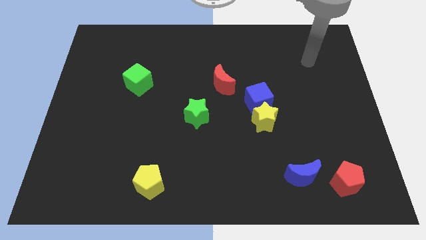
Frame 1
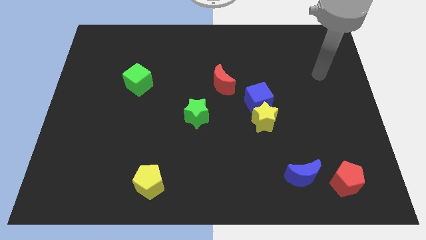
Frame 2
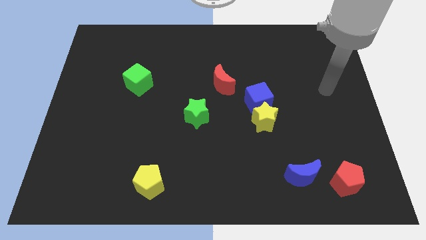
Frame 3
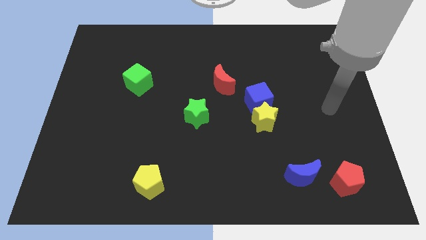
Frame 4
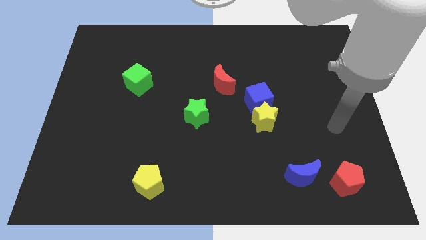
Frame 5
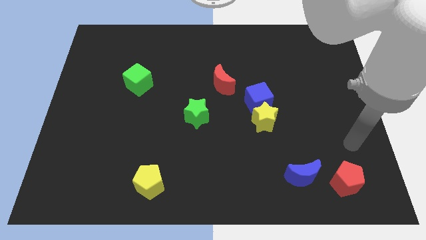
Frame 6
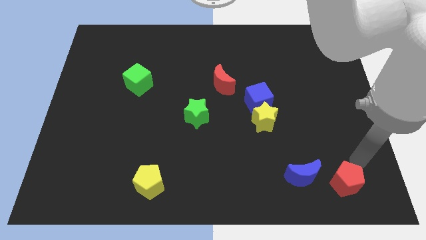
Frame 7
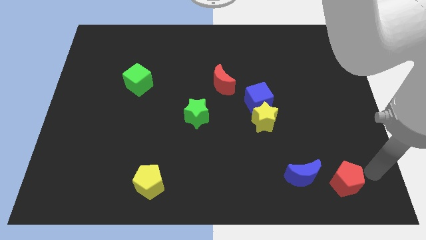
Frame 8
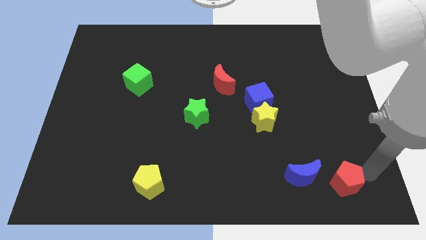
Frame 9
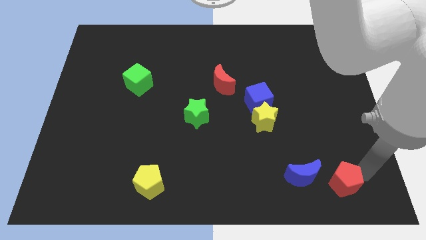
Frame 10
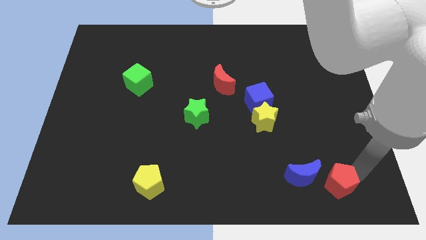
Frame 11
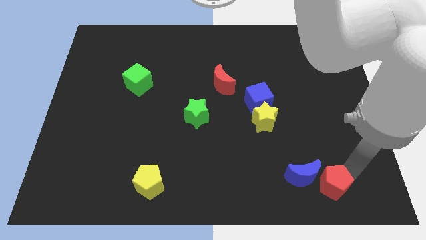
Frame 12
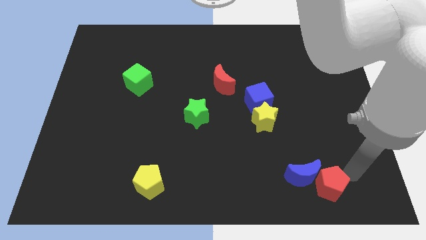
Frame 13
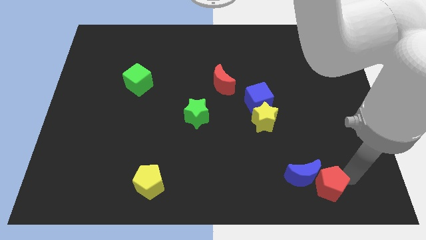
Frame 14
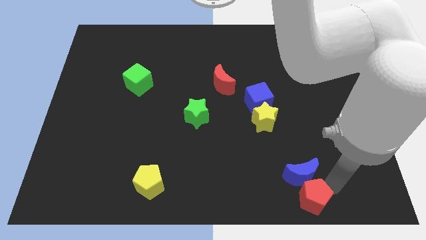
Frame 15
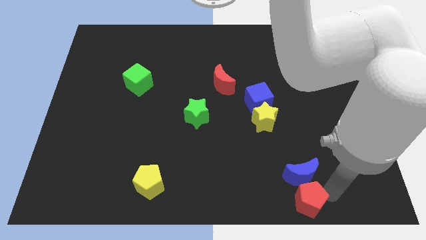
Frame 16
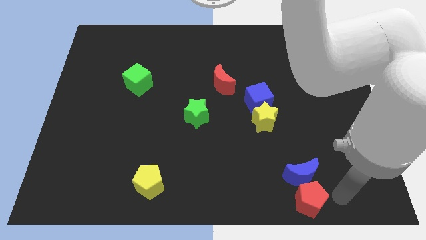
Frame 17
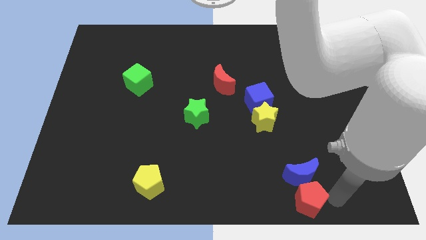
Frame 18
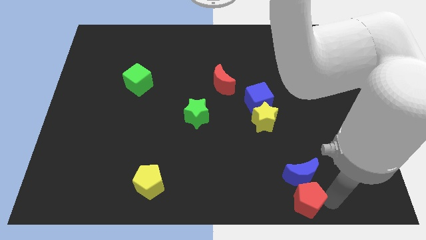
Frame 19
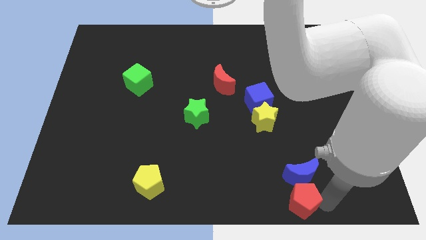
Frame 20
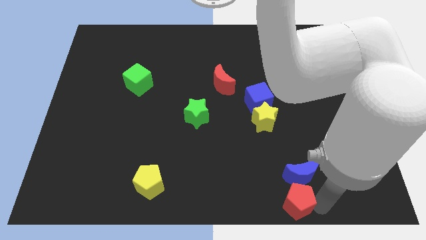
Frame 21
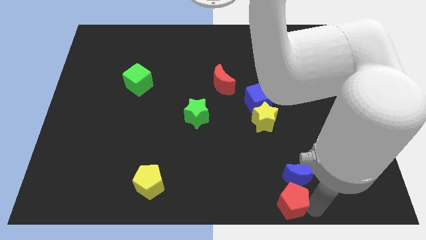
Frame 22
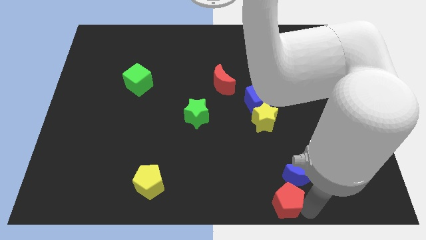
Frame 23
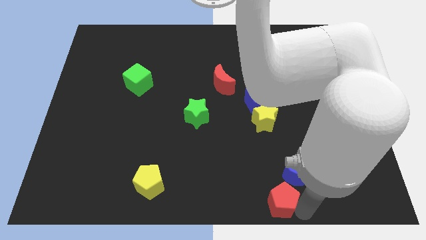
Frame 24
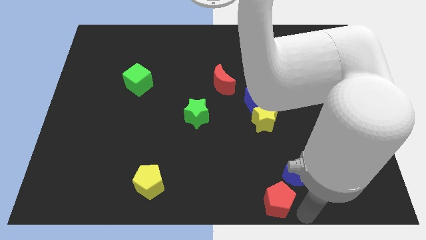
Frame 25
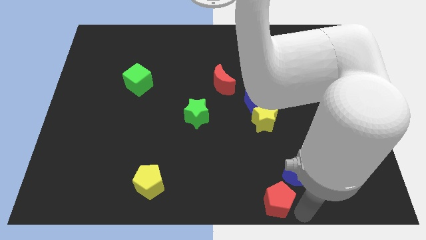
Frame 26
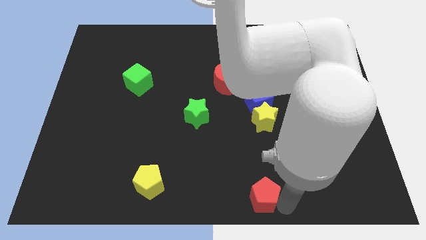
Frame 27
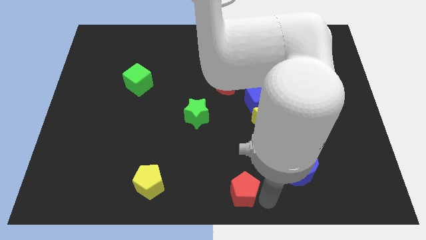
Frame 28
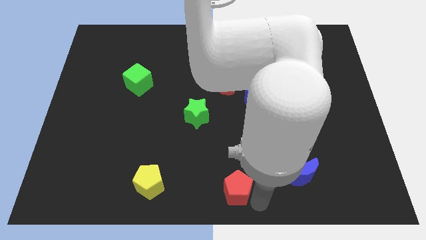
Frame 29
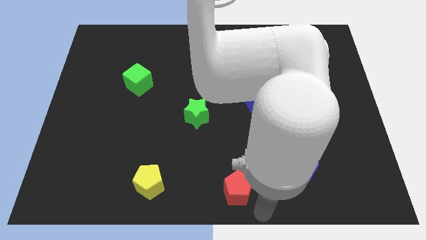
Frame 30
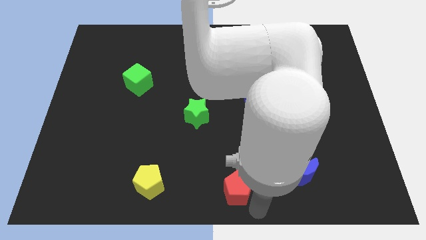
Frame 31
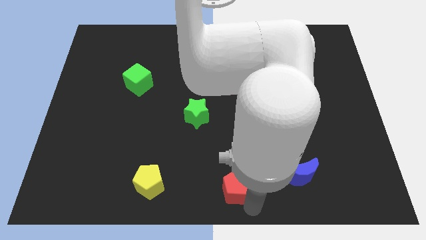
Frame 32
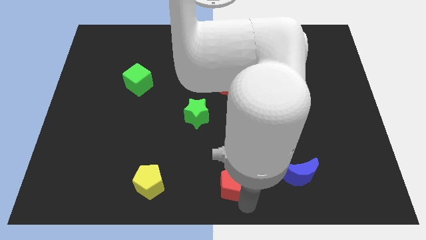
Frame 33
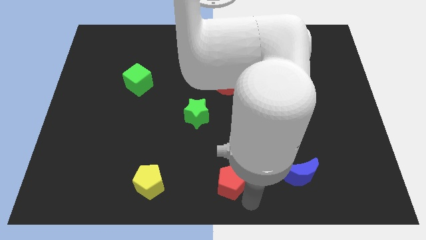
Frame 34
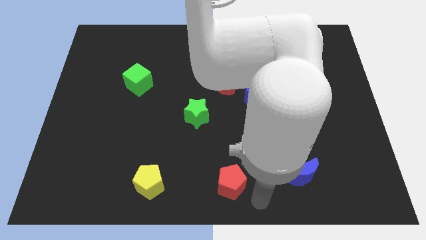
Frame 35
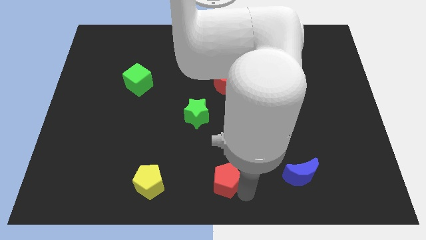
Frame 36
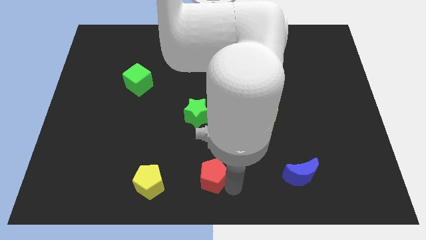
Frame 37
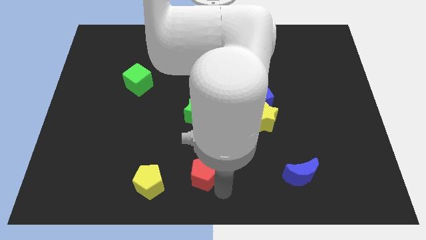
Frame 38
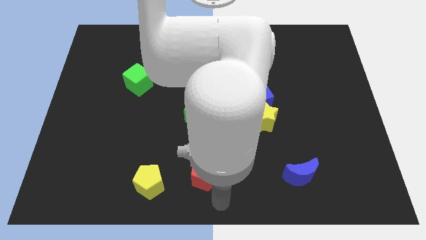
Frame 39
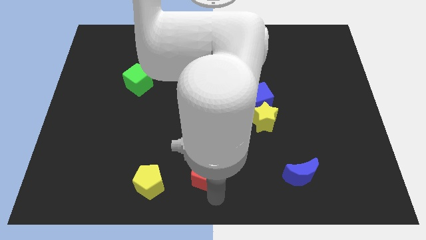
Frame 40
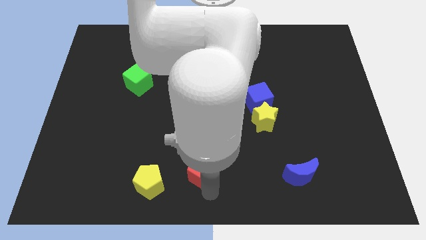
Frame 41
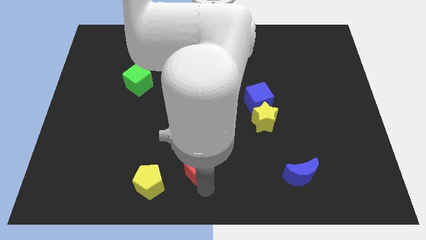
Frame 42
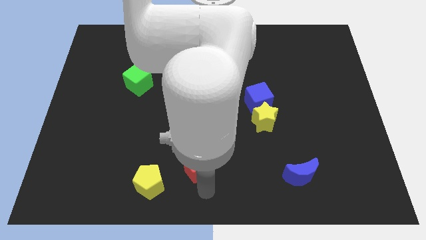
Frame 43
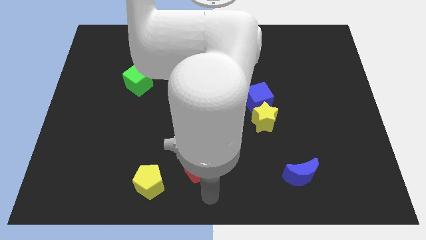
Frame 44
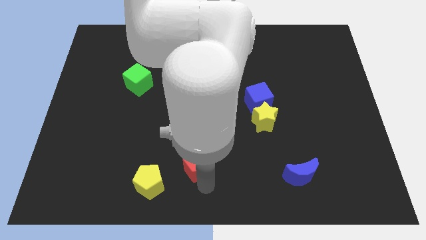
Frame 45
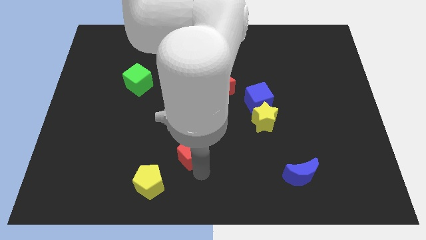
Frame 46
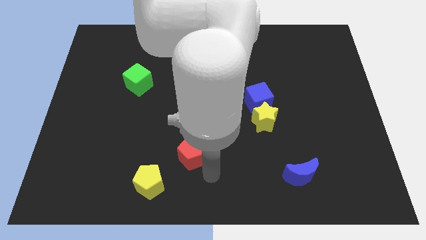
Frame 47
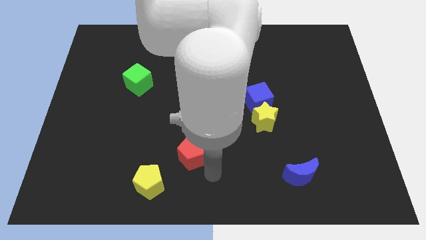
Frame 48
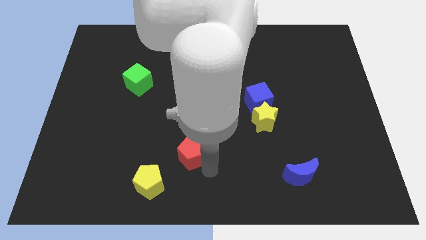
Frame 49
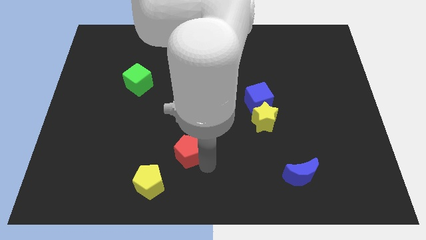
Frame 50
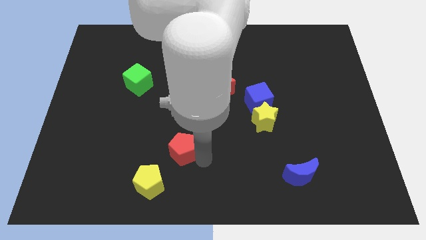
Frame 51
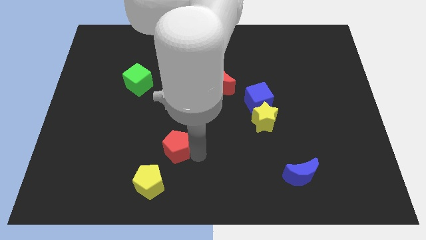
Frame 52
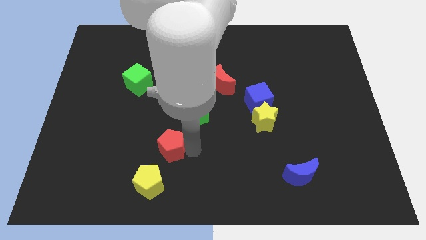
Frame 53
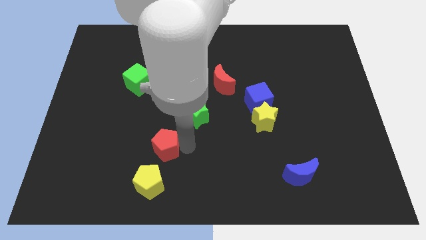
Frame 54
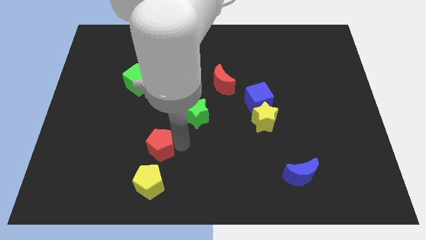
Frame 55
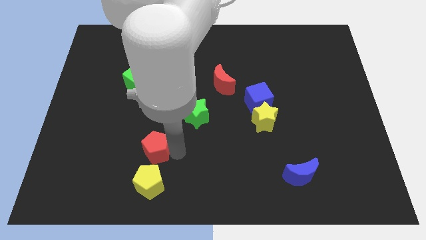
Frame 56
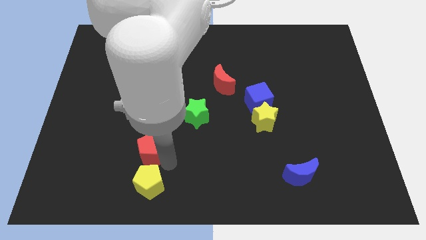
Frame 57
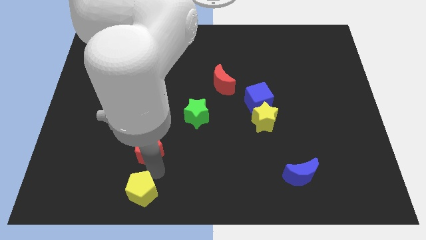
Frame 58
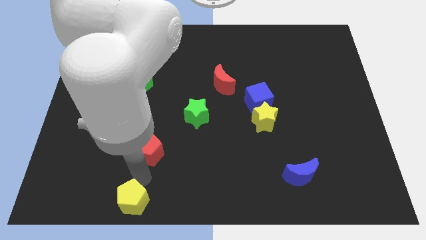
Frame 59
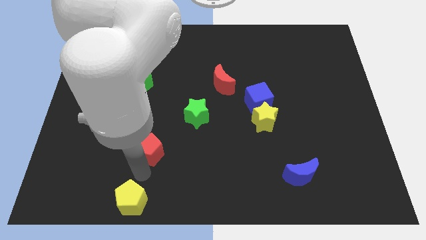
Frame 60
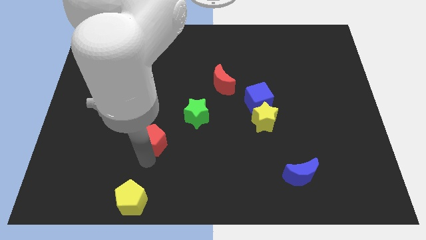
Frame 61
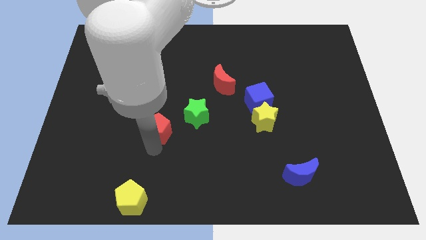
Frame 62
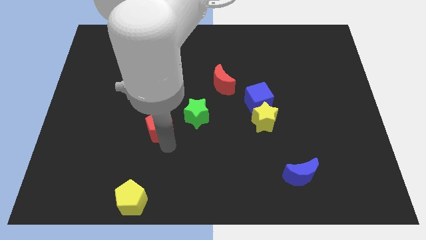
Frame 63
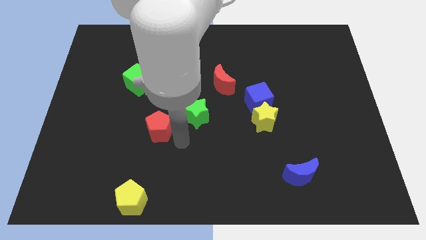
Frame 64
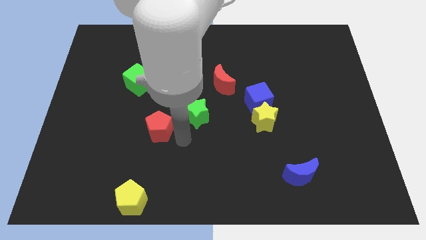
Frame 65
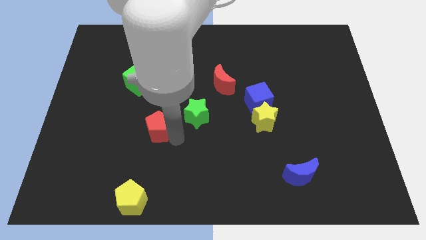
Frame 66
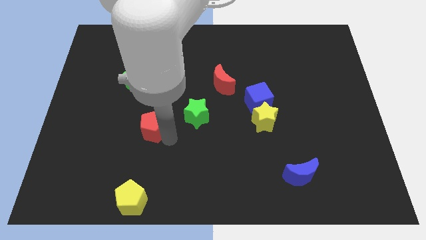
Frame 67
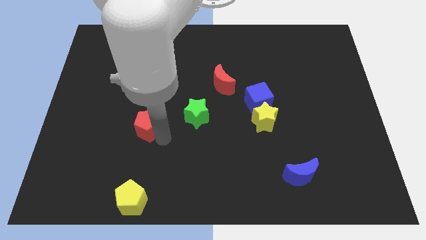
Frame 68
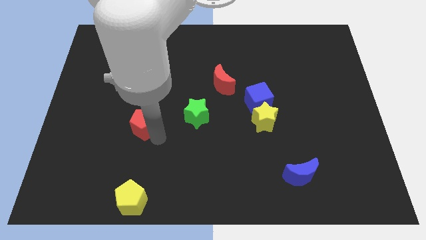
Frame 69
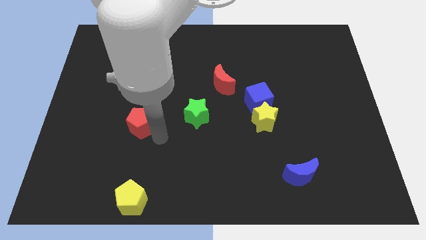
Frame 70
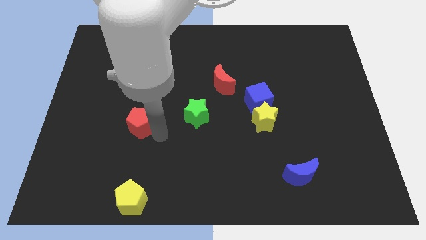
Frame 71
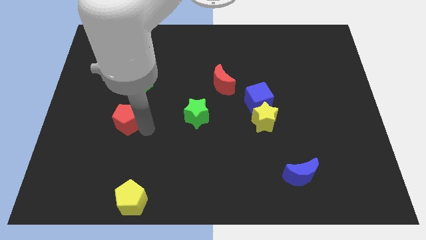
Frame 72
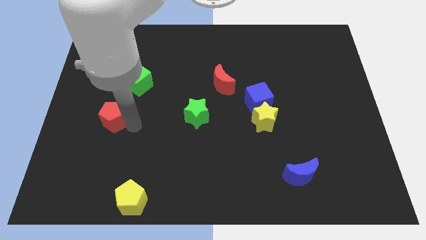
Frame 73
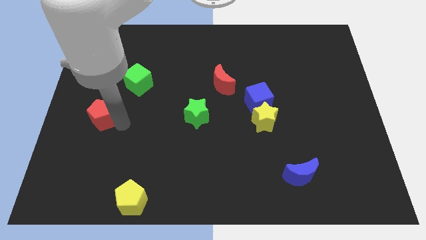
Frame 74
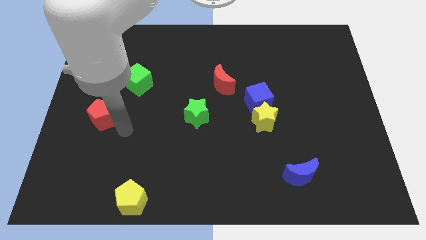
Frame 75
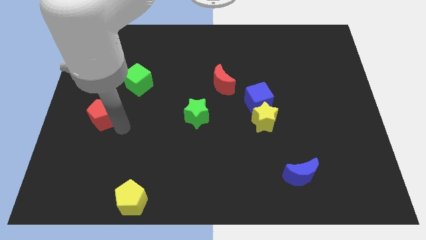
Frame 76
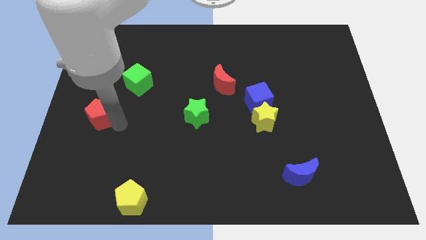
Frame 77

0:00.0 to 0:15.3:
push the red pentagon to the left side of the board
